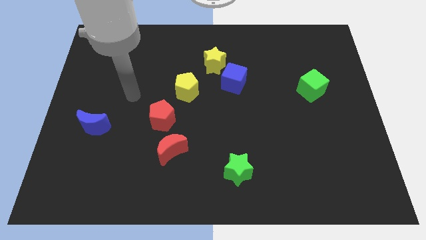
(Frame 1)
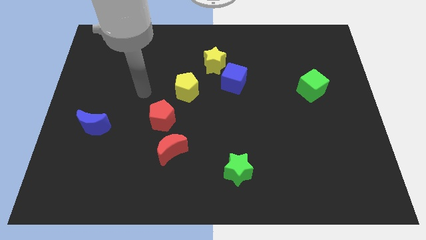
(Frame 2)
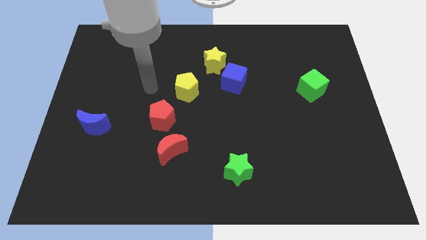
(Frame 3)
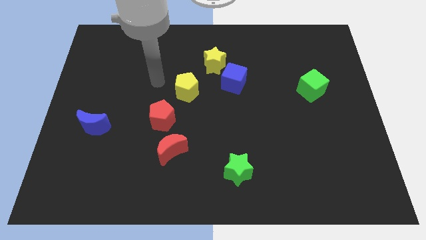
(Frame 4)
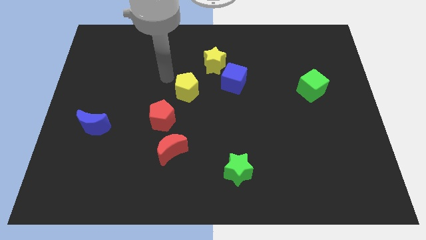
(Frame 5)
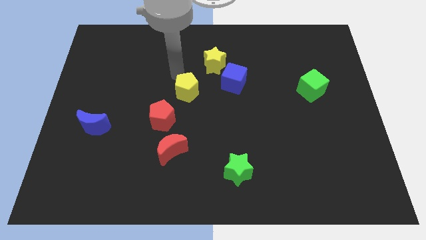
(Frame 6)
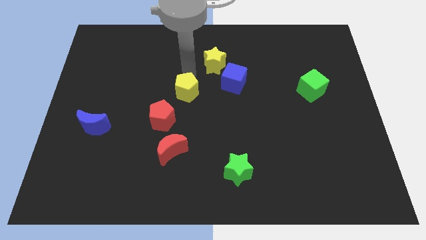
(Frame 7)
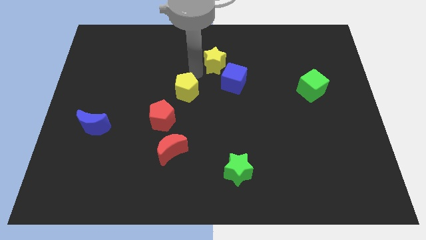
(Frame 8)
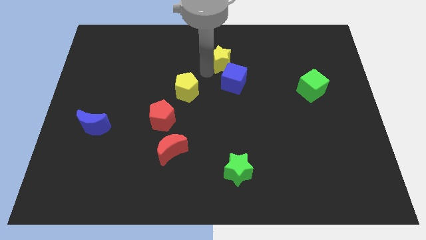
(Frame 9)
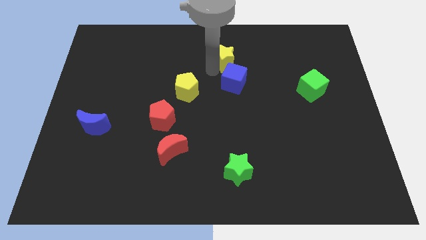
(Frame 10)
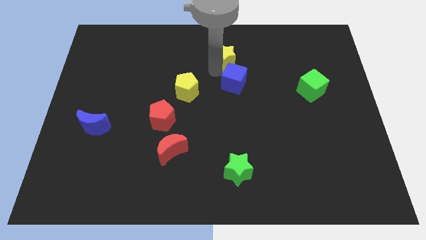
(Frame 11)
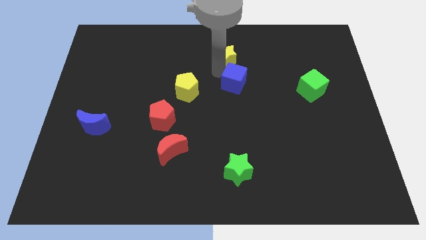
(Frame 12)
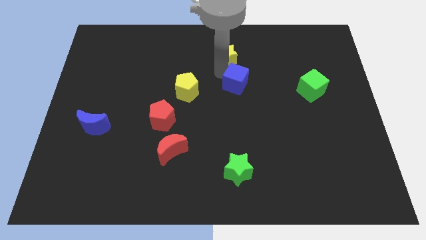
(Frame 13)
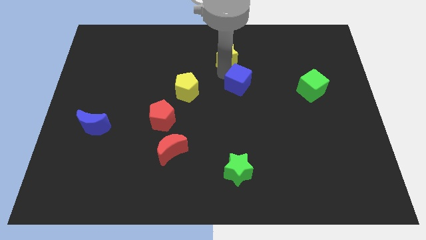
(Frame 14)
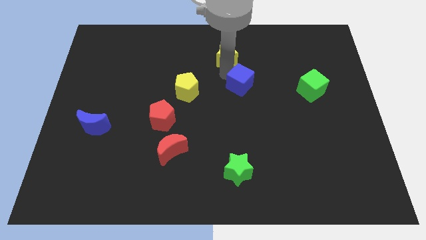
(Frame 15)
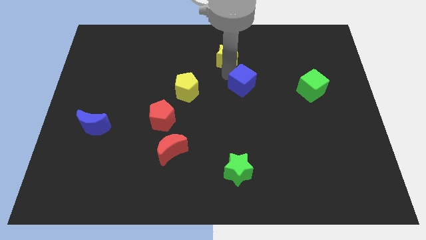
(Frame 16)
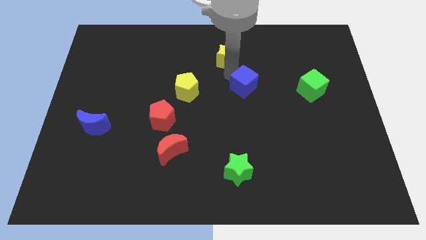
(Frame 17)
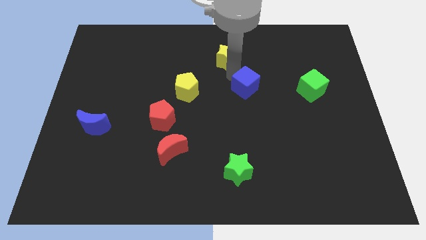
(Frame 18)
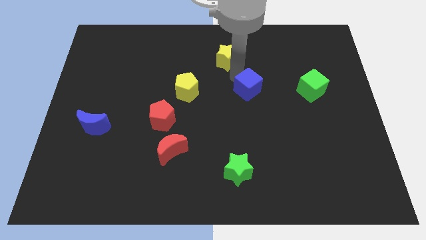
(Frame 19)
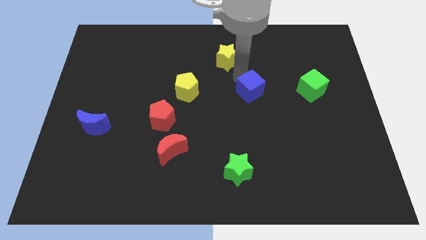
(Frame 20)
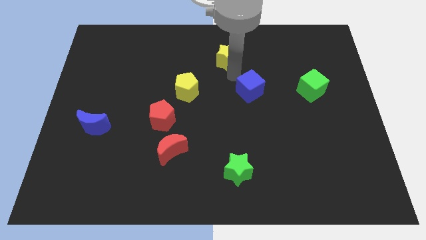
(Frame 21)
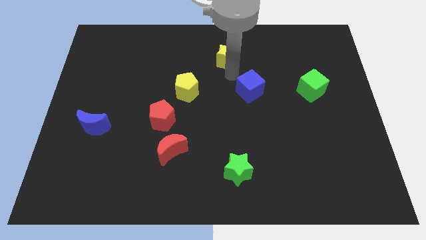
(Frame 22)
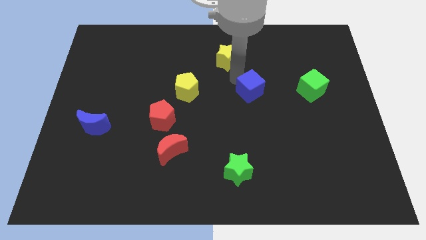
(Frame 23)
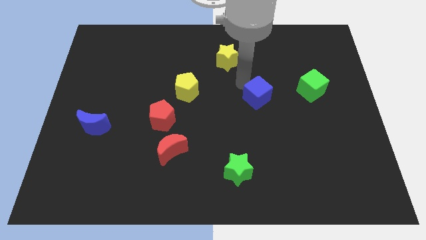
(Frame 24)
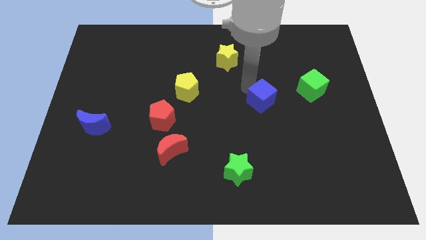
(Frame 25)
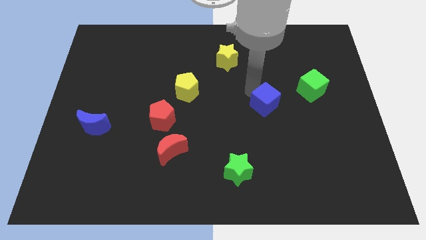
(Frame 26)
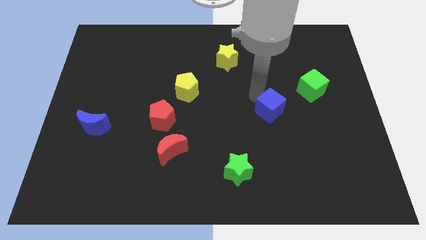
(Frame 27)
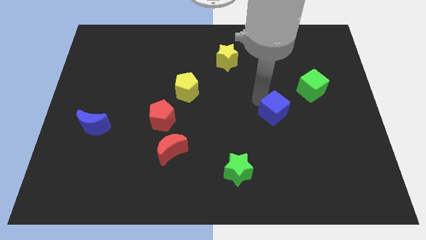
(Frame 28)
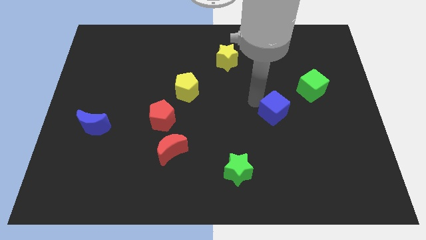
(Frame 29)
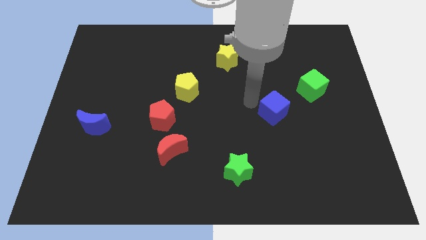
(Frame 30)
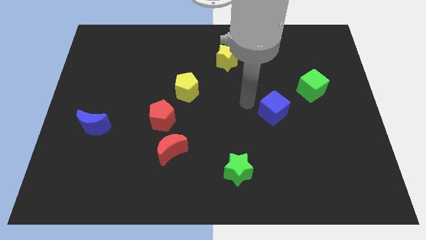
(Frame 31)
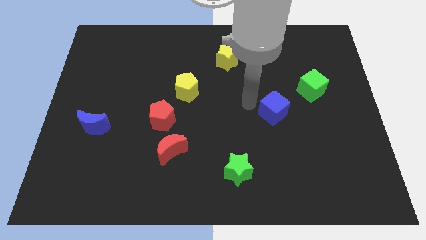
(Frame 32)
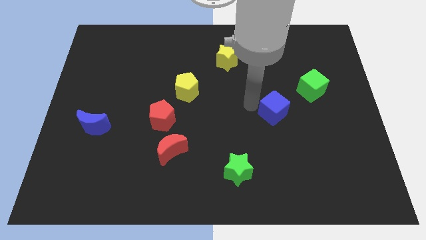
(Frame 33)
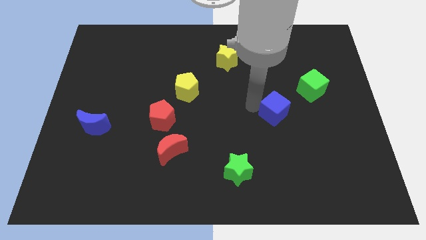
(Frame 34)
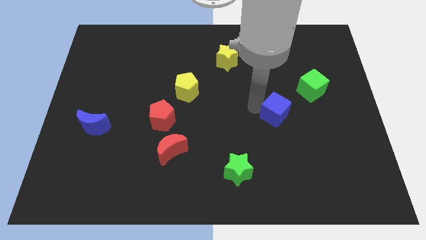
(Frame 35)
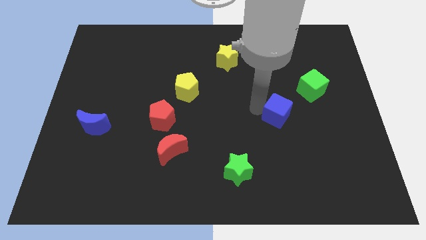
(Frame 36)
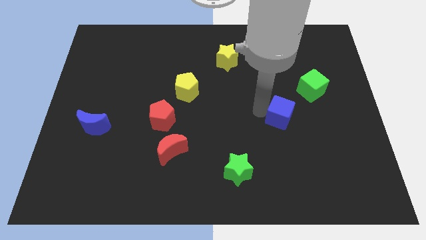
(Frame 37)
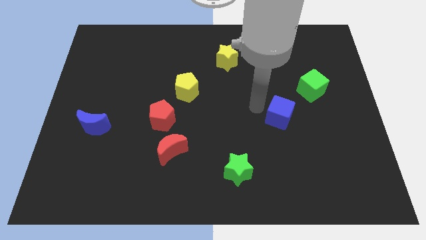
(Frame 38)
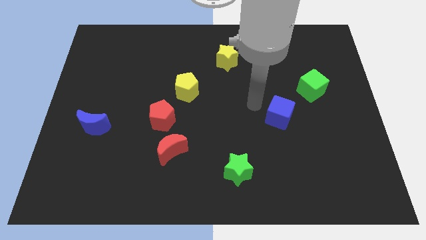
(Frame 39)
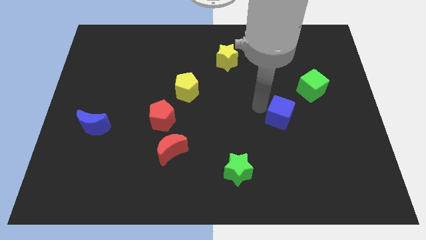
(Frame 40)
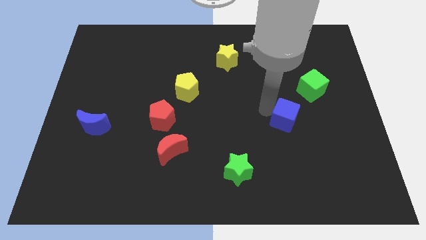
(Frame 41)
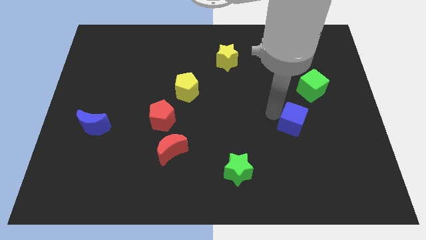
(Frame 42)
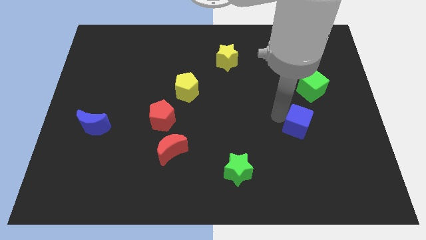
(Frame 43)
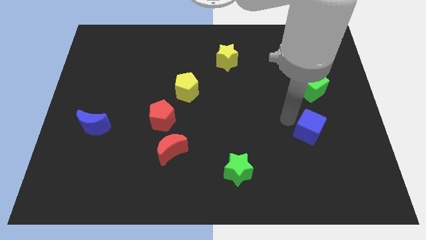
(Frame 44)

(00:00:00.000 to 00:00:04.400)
push the blue cube diagonally down and to the right

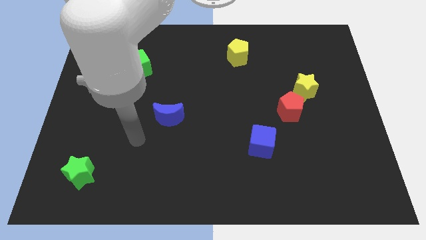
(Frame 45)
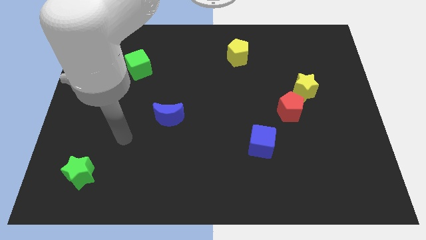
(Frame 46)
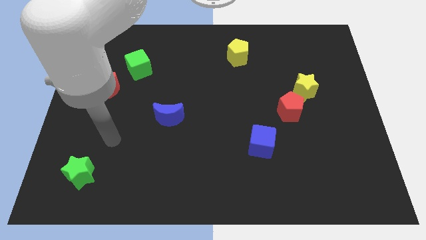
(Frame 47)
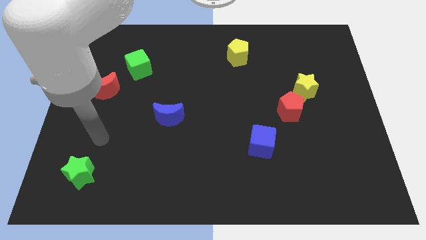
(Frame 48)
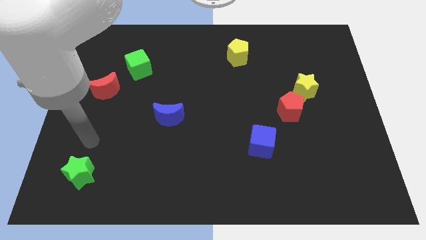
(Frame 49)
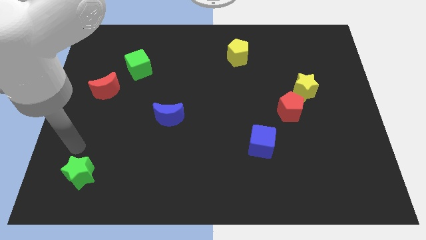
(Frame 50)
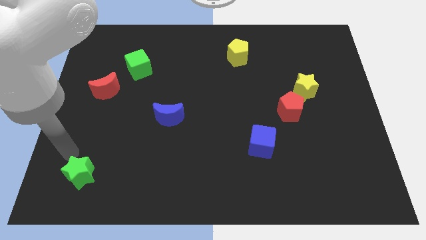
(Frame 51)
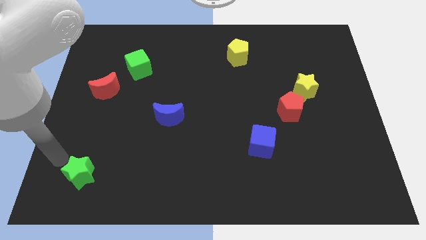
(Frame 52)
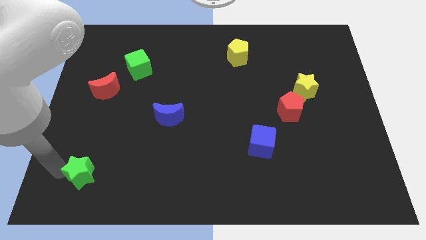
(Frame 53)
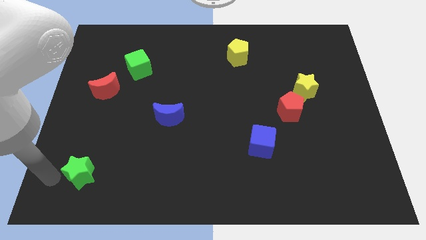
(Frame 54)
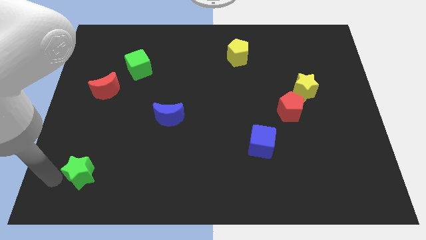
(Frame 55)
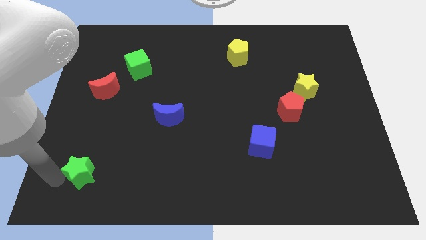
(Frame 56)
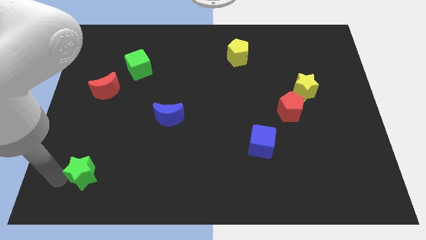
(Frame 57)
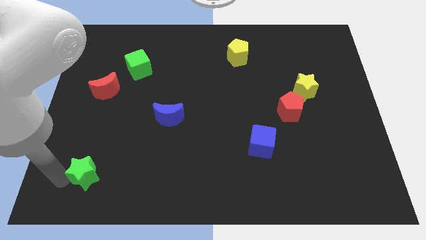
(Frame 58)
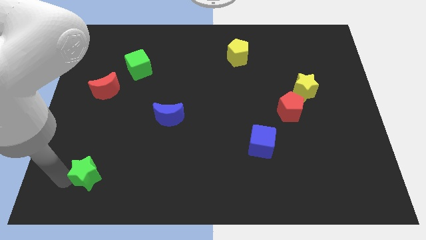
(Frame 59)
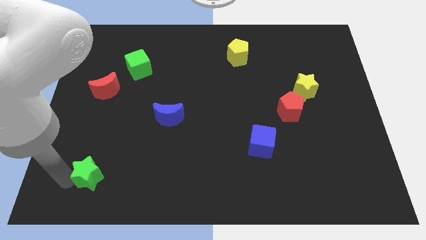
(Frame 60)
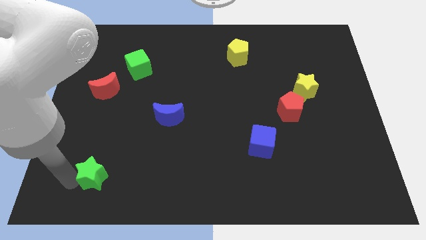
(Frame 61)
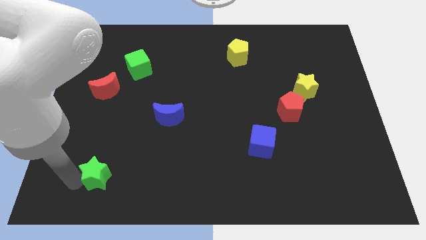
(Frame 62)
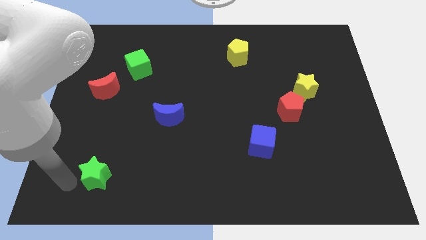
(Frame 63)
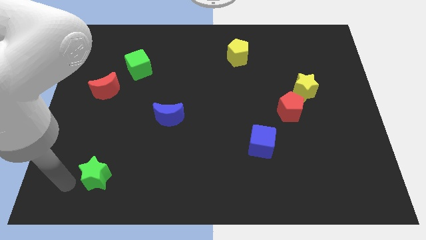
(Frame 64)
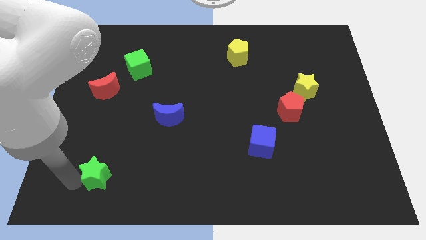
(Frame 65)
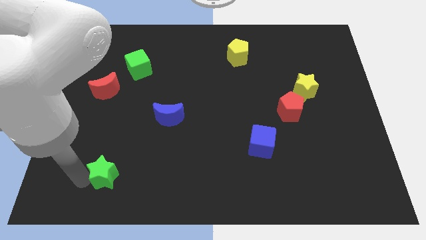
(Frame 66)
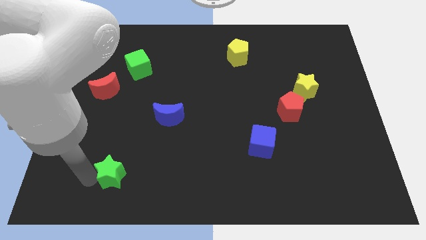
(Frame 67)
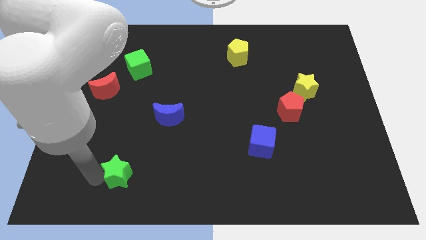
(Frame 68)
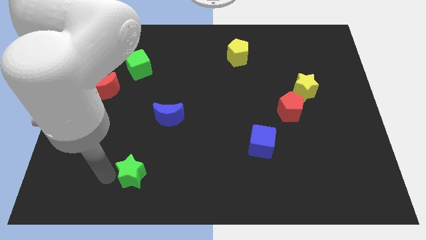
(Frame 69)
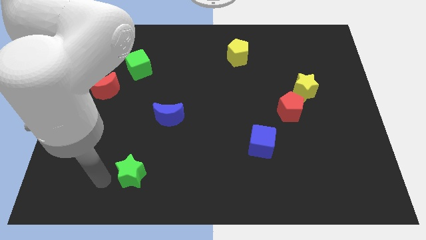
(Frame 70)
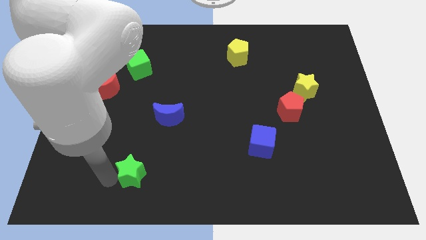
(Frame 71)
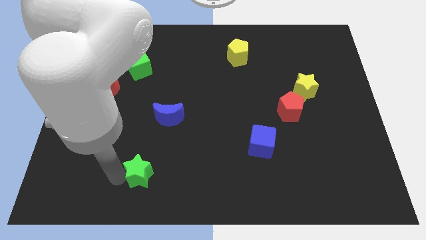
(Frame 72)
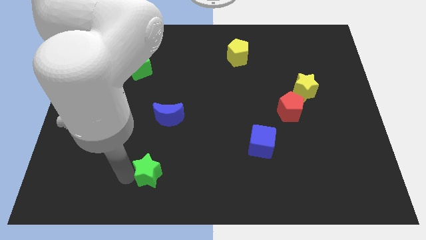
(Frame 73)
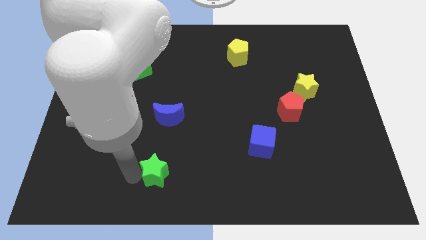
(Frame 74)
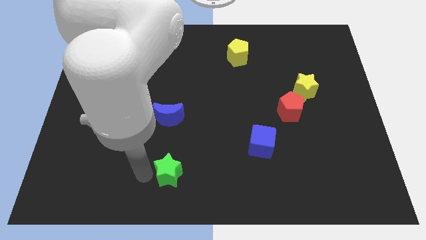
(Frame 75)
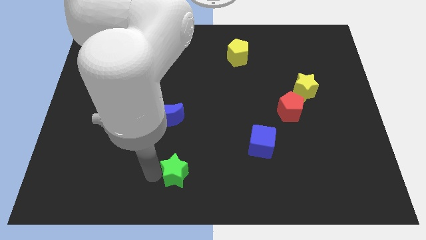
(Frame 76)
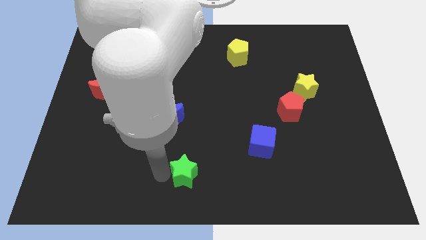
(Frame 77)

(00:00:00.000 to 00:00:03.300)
slide the green star right

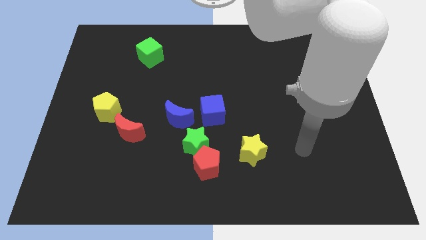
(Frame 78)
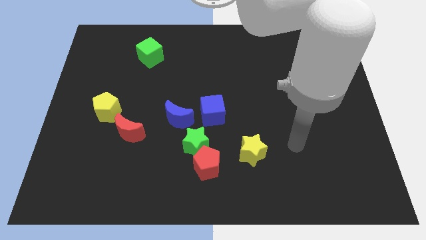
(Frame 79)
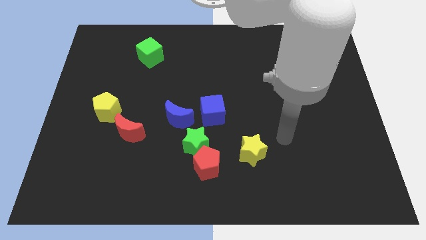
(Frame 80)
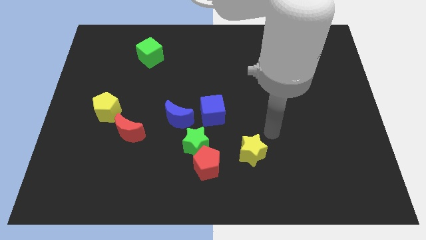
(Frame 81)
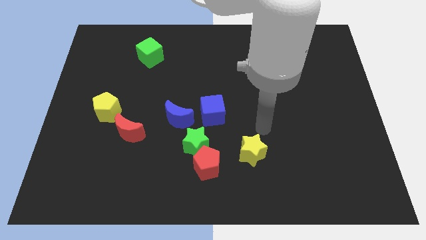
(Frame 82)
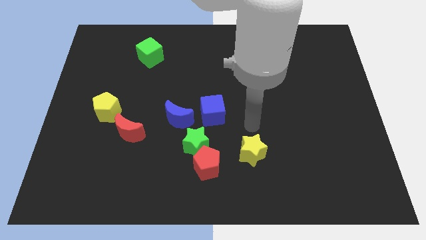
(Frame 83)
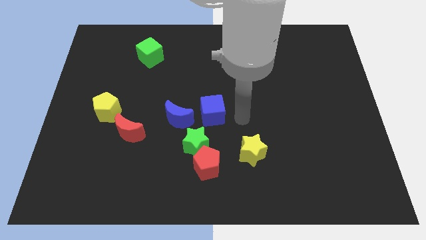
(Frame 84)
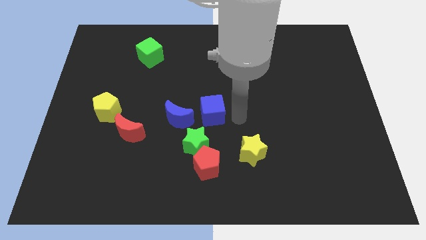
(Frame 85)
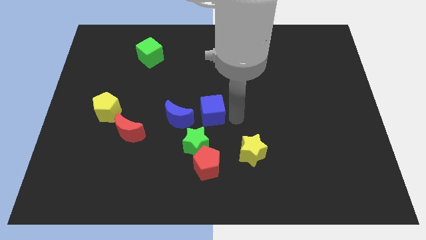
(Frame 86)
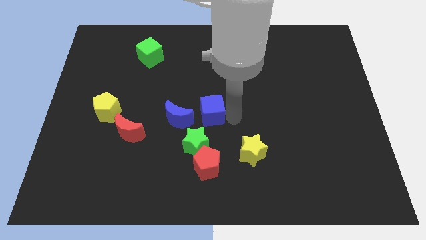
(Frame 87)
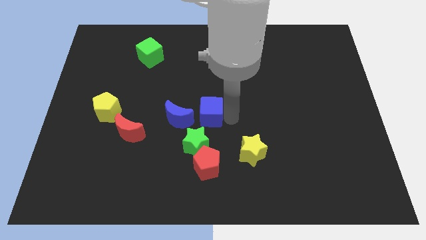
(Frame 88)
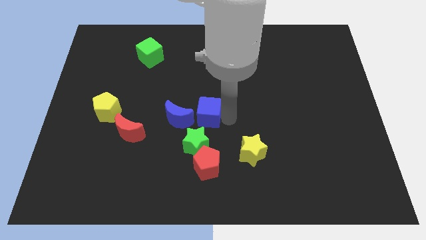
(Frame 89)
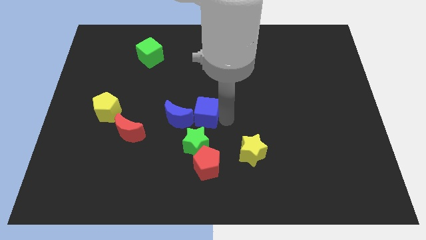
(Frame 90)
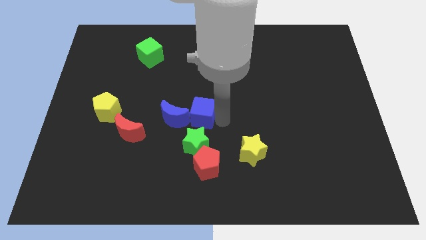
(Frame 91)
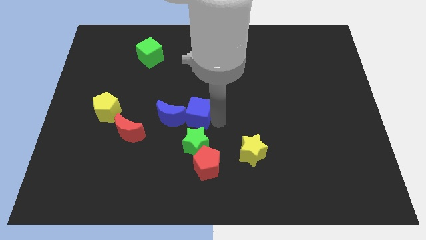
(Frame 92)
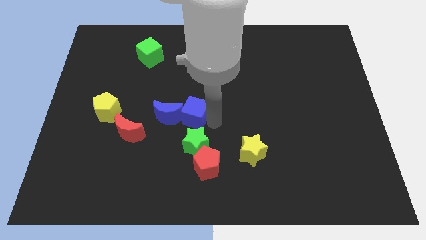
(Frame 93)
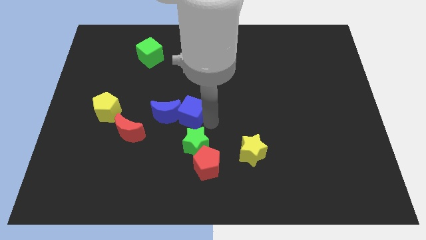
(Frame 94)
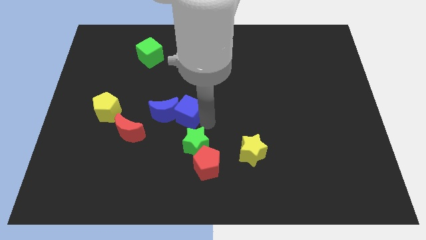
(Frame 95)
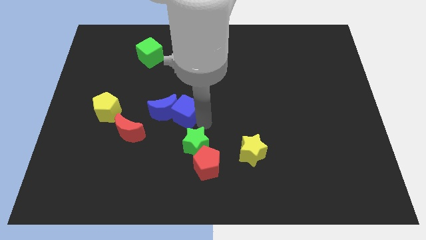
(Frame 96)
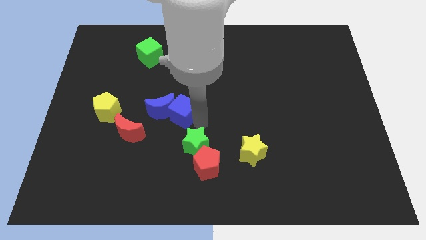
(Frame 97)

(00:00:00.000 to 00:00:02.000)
slightly push the blue cube to the left
